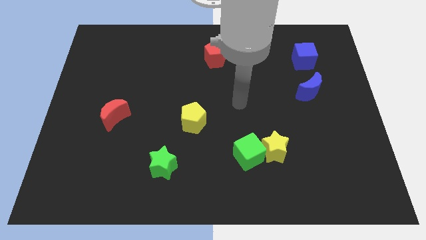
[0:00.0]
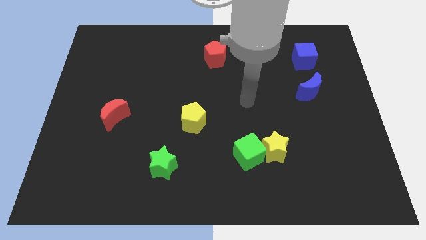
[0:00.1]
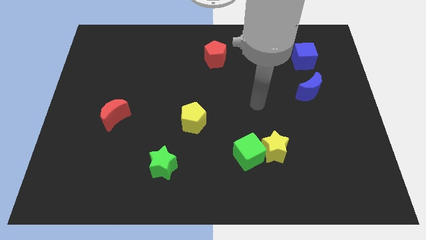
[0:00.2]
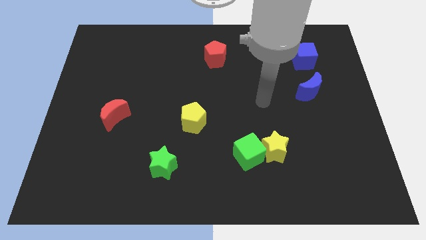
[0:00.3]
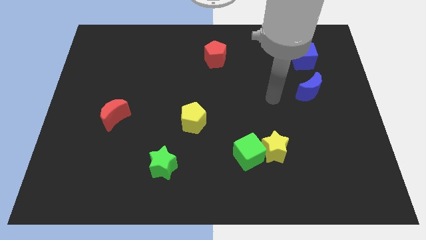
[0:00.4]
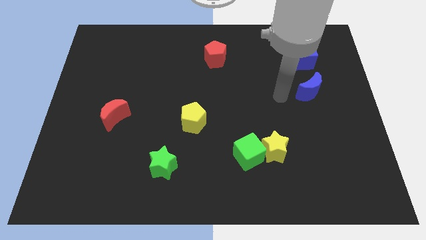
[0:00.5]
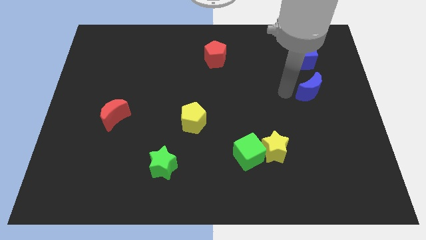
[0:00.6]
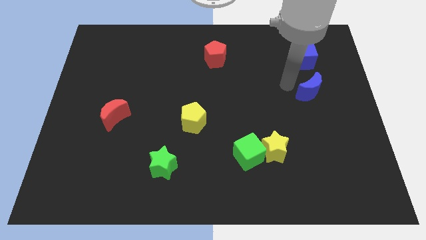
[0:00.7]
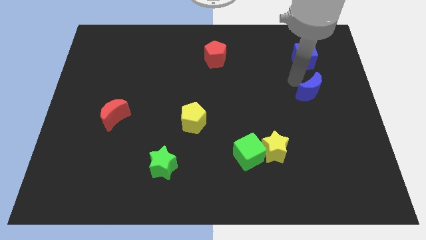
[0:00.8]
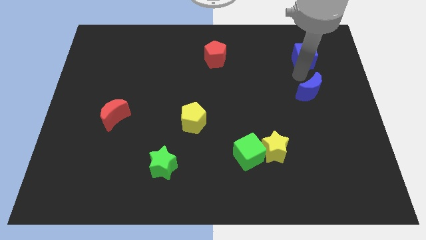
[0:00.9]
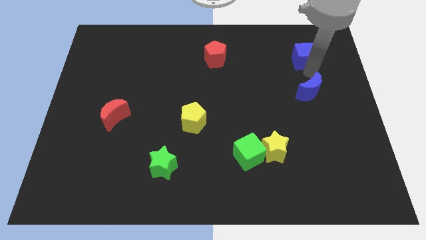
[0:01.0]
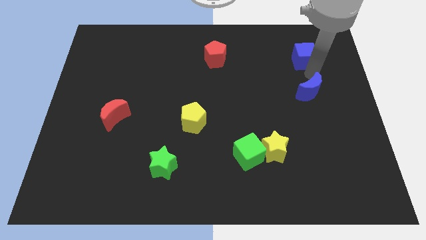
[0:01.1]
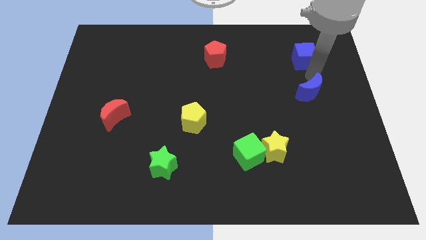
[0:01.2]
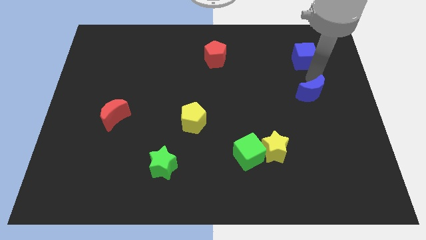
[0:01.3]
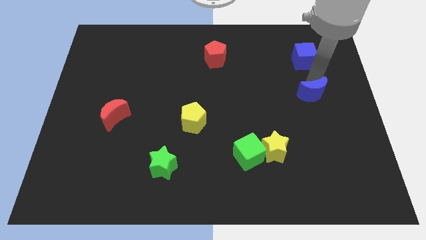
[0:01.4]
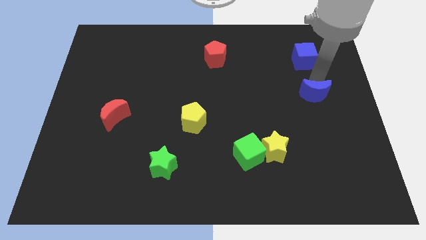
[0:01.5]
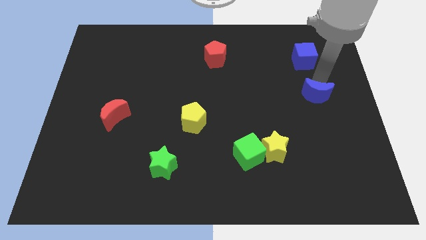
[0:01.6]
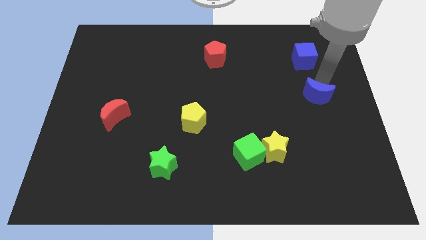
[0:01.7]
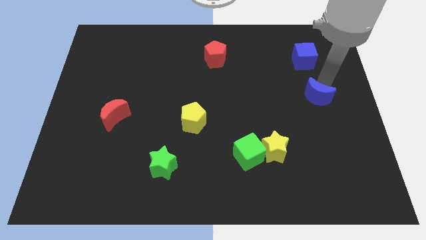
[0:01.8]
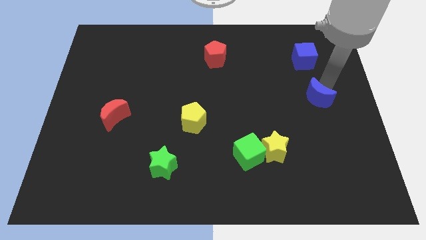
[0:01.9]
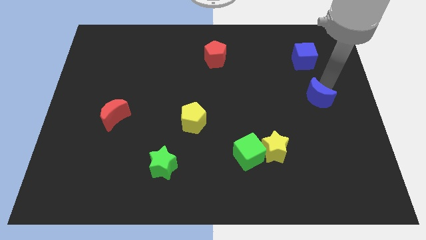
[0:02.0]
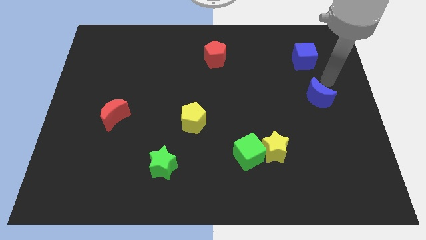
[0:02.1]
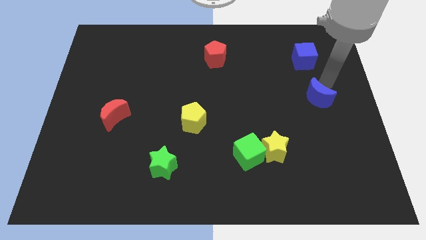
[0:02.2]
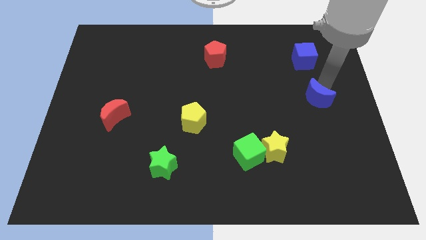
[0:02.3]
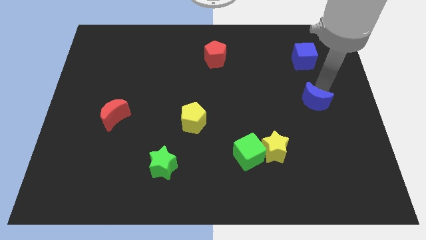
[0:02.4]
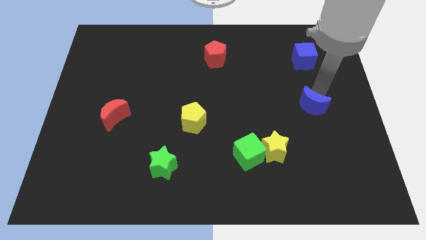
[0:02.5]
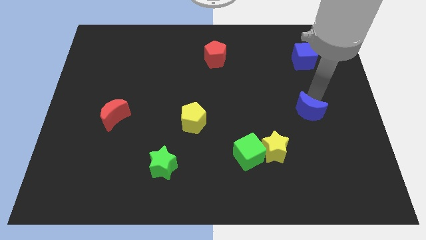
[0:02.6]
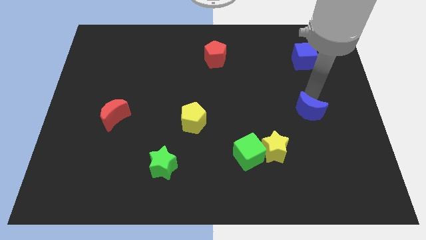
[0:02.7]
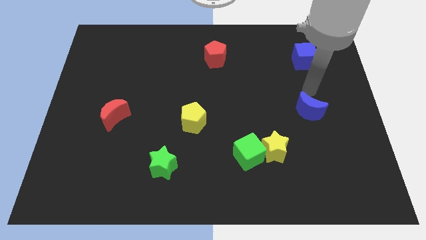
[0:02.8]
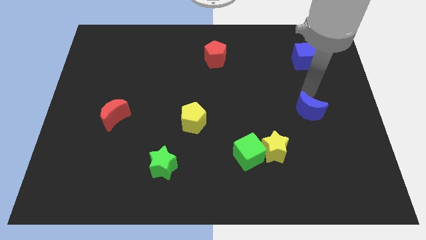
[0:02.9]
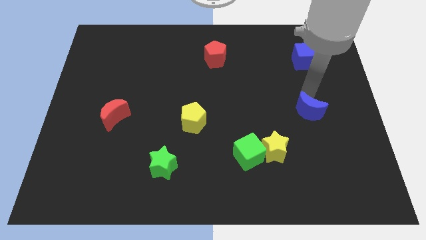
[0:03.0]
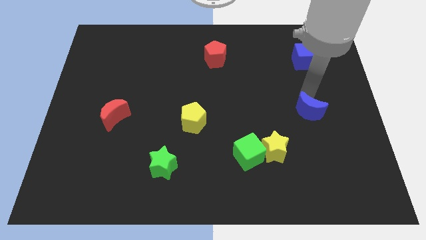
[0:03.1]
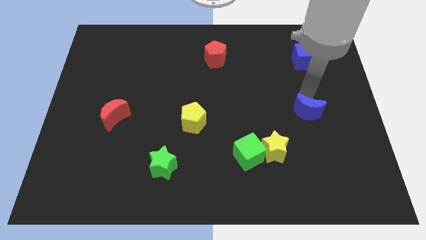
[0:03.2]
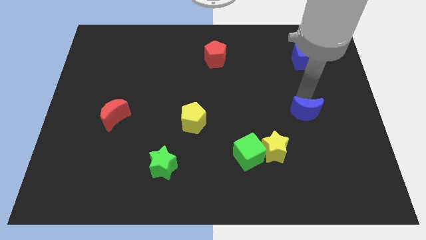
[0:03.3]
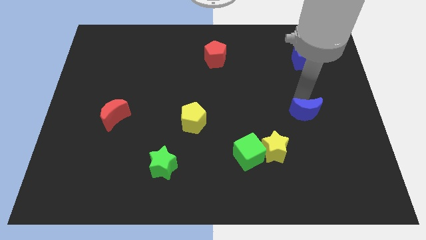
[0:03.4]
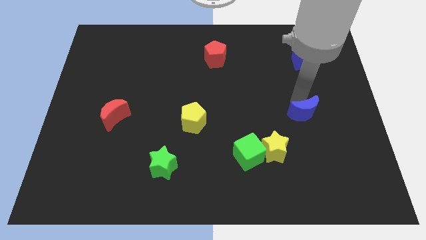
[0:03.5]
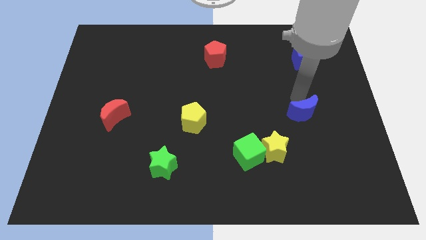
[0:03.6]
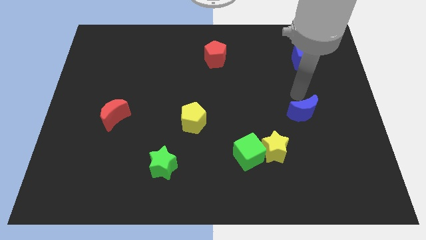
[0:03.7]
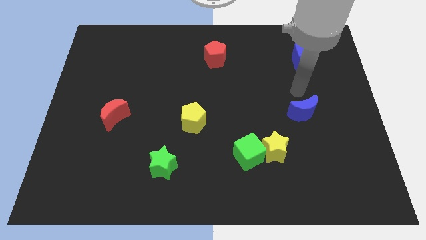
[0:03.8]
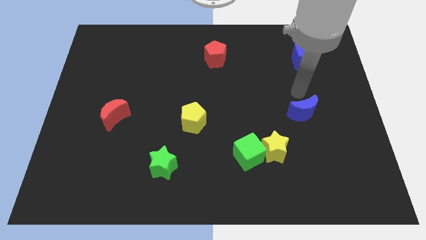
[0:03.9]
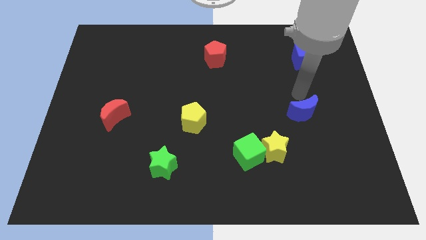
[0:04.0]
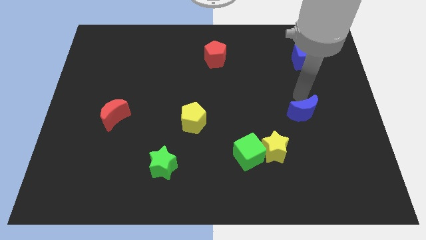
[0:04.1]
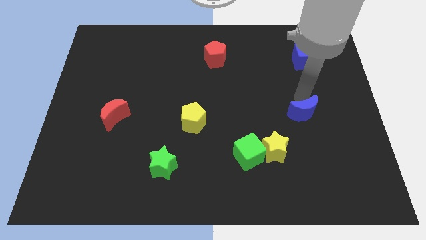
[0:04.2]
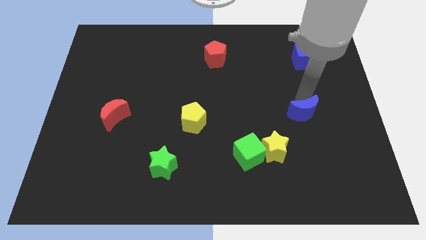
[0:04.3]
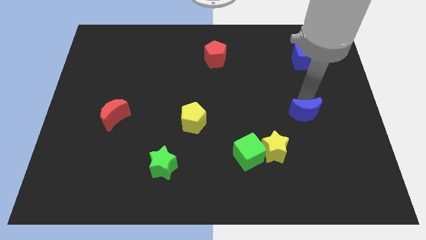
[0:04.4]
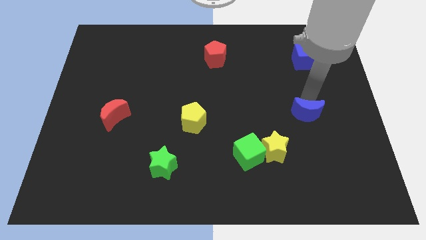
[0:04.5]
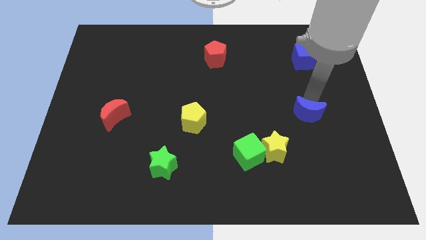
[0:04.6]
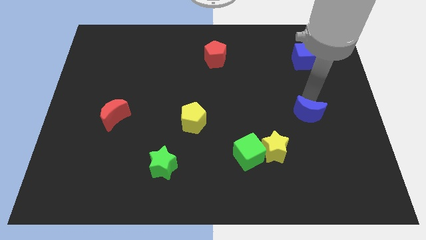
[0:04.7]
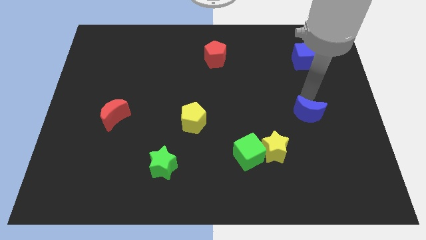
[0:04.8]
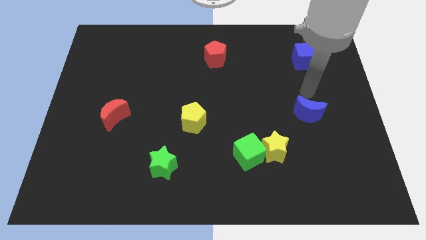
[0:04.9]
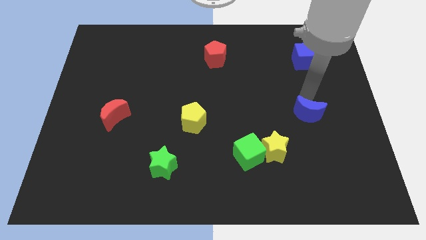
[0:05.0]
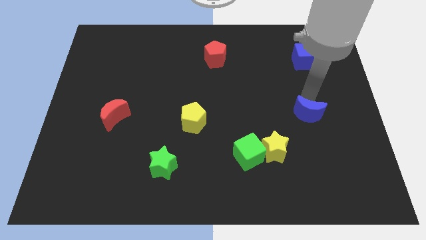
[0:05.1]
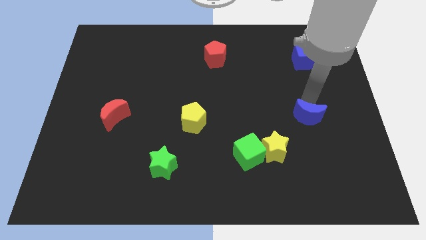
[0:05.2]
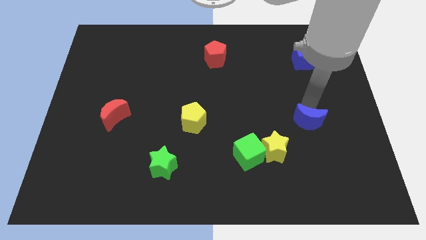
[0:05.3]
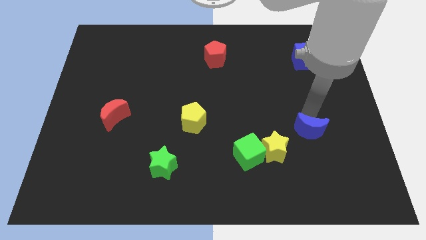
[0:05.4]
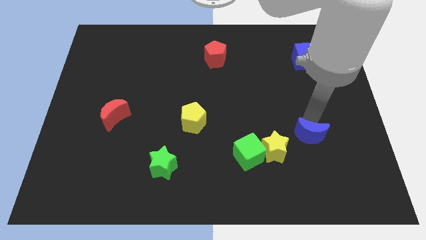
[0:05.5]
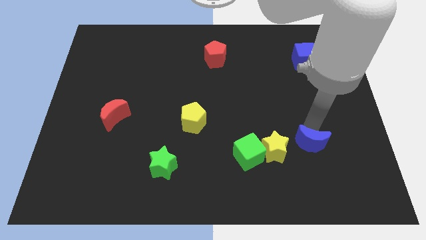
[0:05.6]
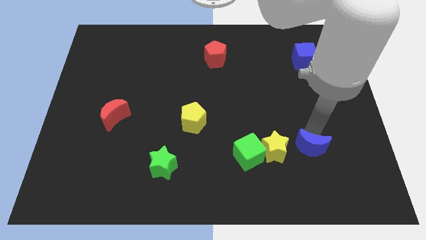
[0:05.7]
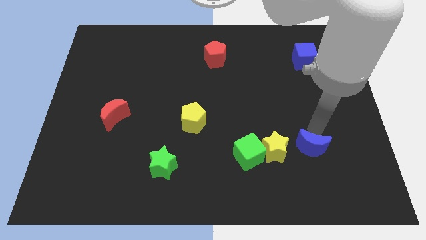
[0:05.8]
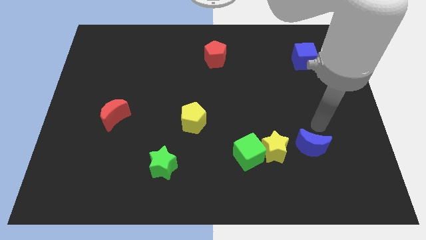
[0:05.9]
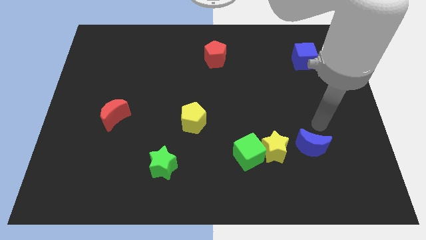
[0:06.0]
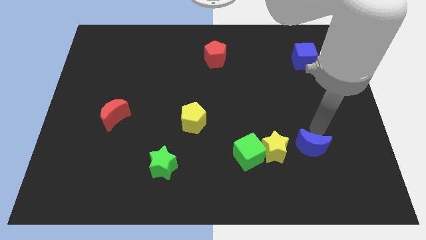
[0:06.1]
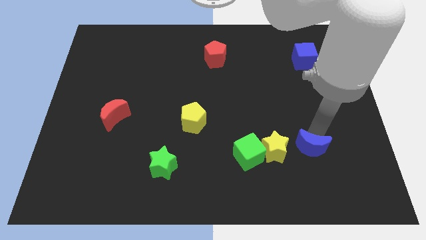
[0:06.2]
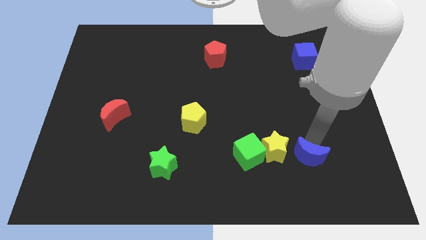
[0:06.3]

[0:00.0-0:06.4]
push the blue moon to the bottom right of the yellow star

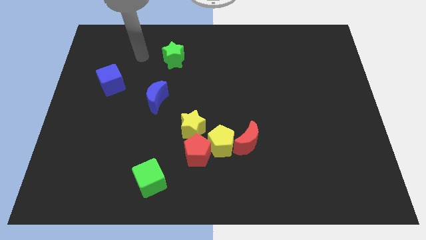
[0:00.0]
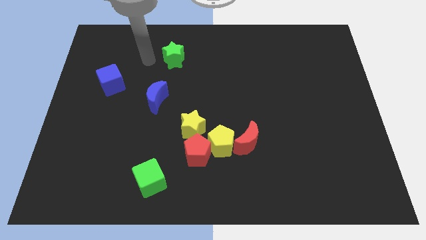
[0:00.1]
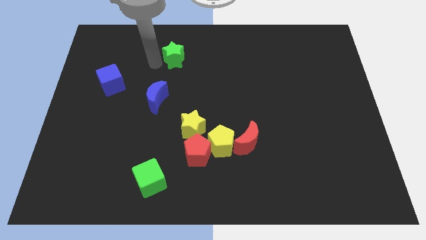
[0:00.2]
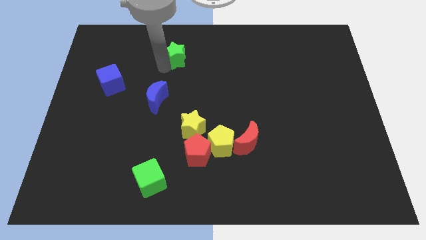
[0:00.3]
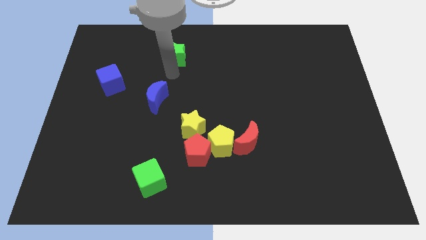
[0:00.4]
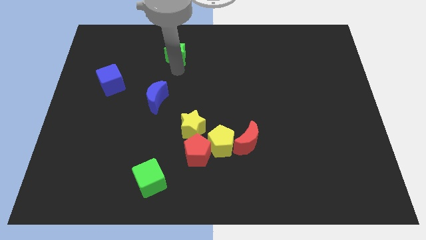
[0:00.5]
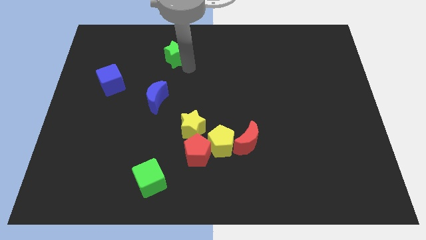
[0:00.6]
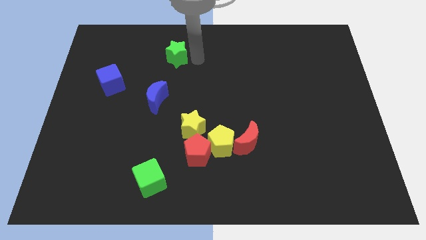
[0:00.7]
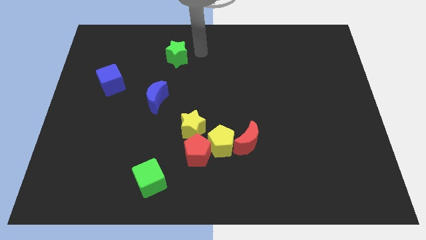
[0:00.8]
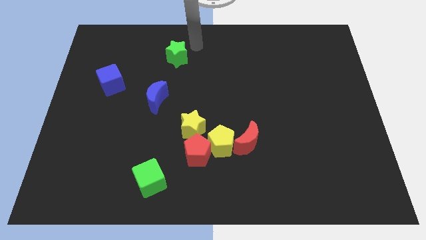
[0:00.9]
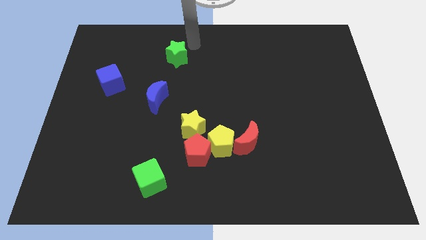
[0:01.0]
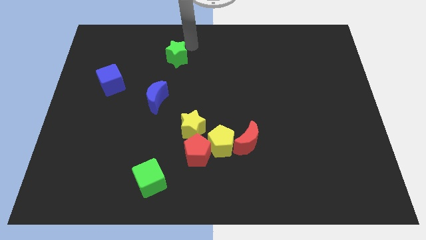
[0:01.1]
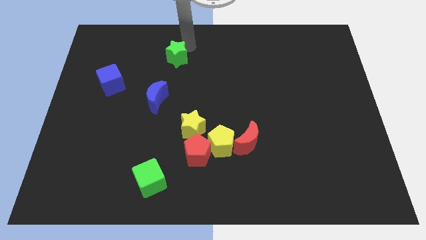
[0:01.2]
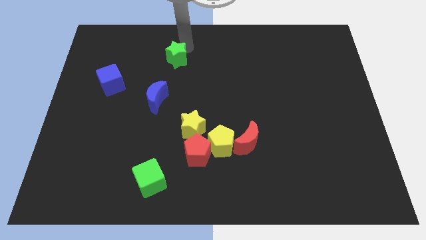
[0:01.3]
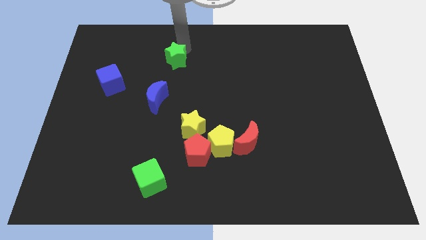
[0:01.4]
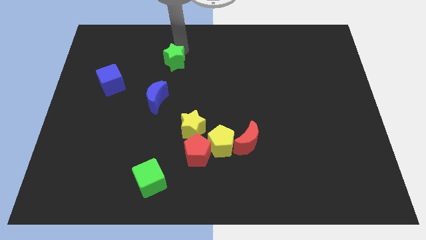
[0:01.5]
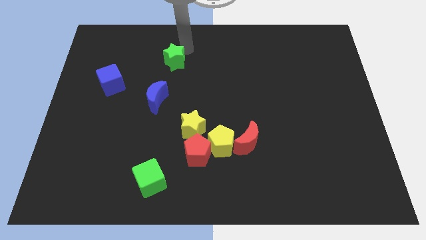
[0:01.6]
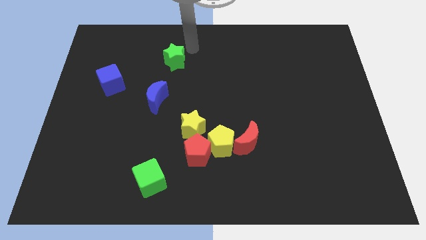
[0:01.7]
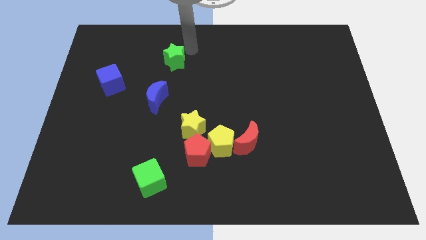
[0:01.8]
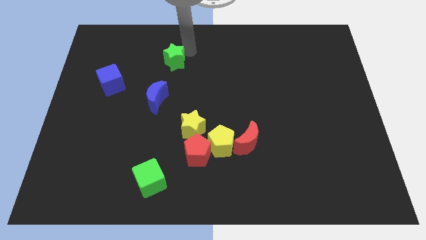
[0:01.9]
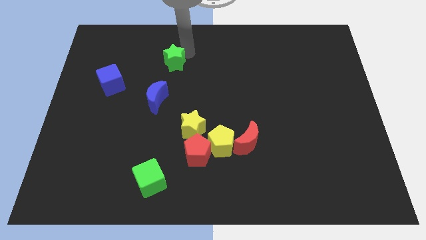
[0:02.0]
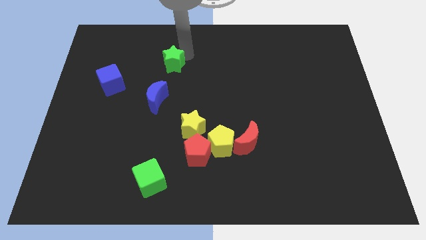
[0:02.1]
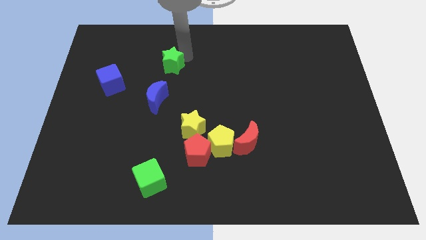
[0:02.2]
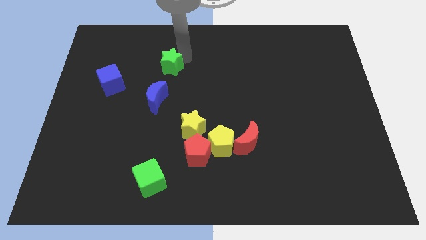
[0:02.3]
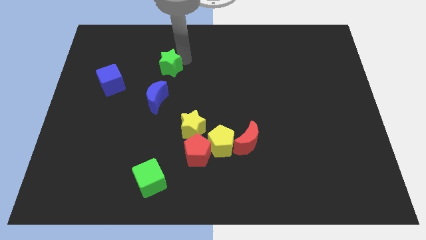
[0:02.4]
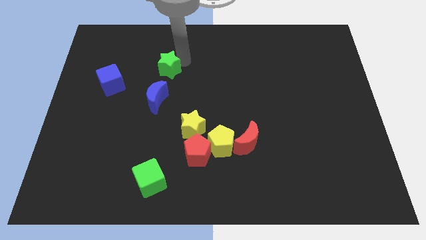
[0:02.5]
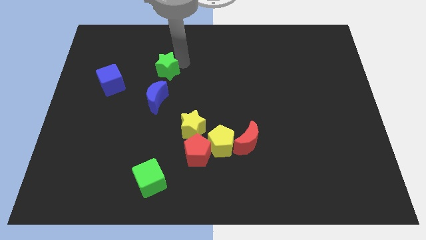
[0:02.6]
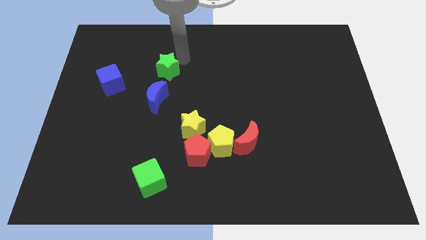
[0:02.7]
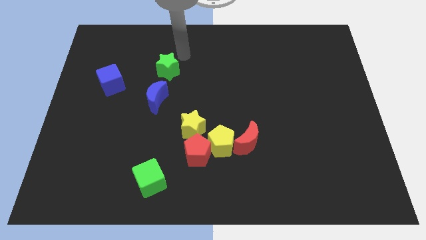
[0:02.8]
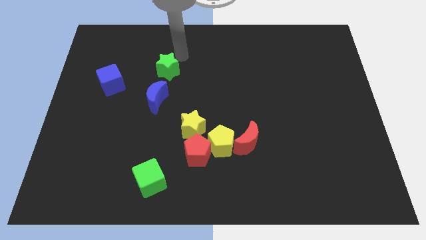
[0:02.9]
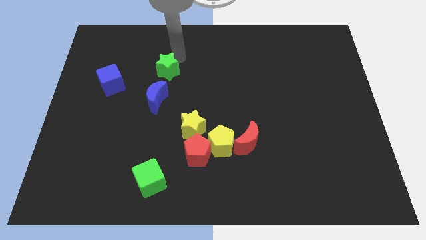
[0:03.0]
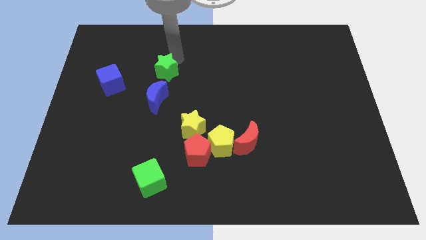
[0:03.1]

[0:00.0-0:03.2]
move the green star to the right side of the blue cube
